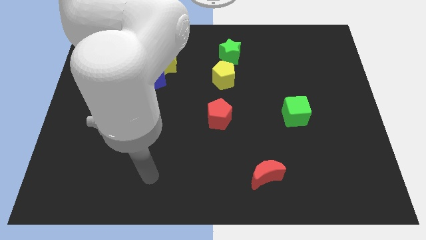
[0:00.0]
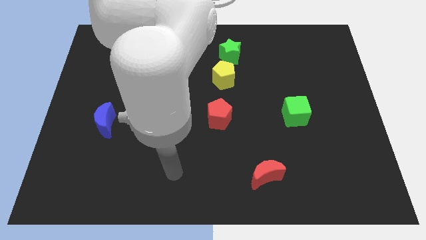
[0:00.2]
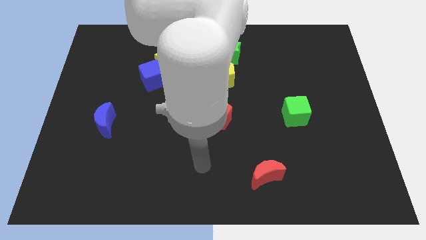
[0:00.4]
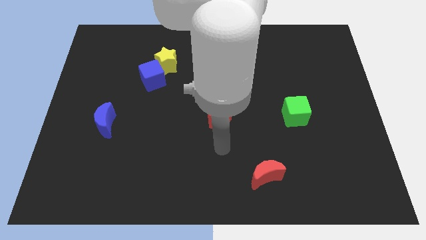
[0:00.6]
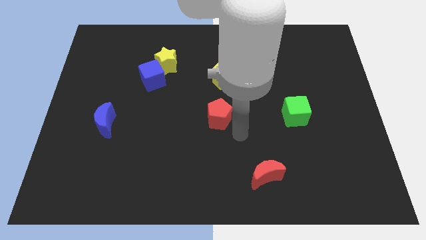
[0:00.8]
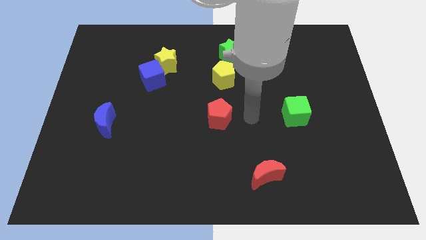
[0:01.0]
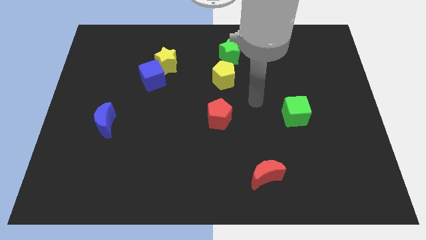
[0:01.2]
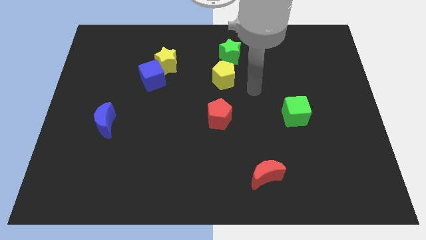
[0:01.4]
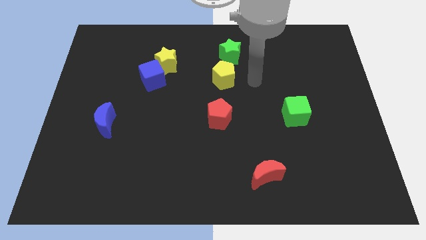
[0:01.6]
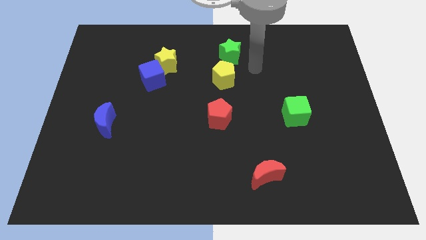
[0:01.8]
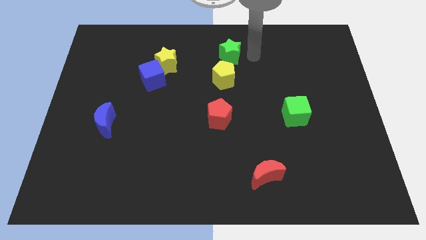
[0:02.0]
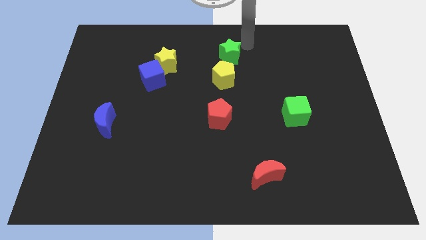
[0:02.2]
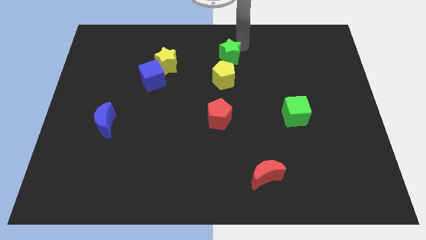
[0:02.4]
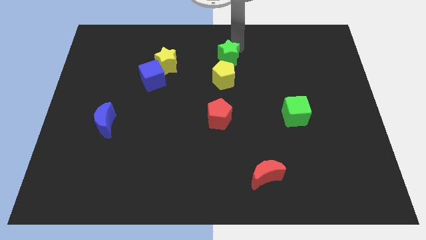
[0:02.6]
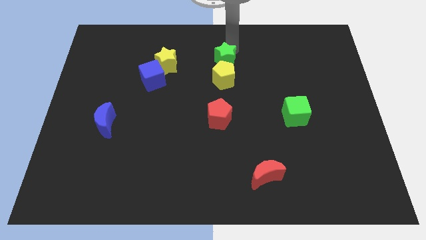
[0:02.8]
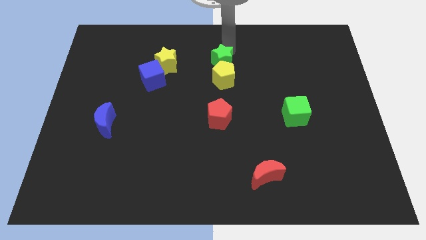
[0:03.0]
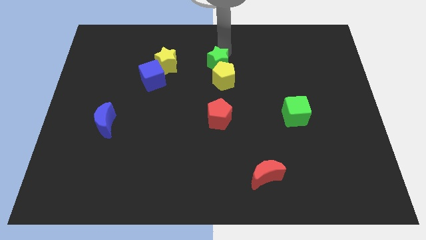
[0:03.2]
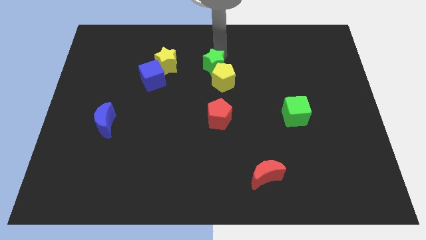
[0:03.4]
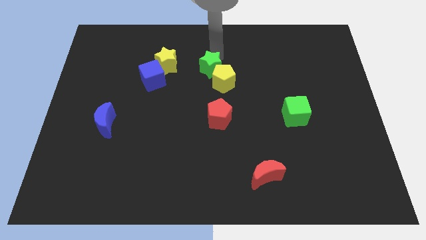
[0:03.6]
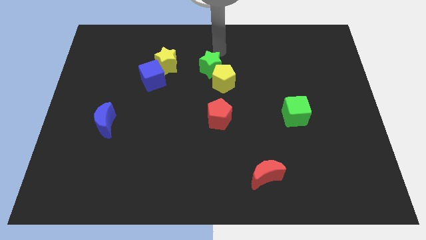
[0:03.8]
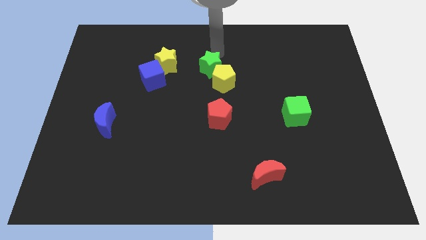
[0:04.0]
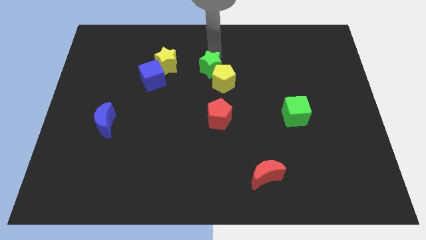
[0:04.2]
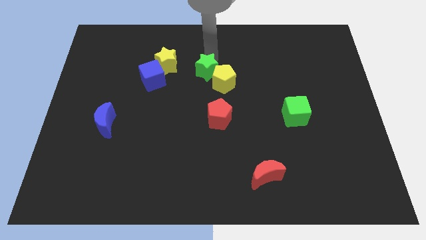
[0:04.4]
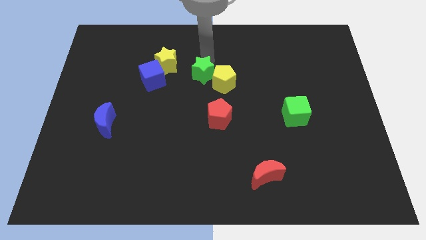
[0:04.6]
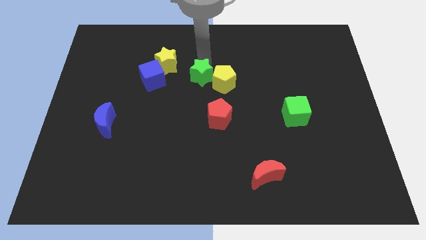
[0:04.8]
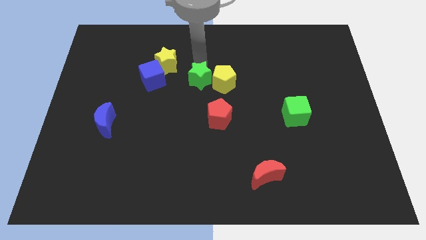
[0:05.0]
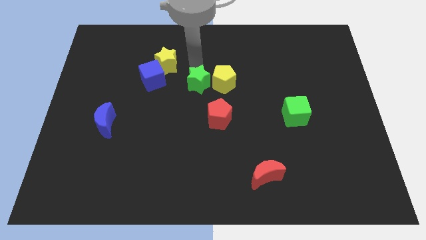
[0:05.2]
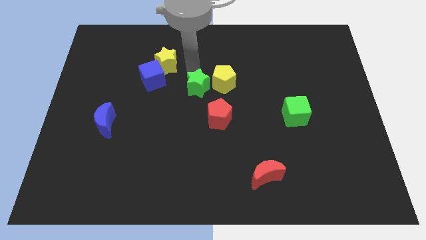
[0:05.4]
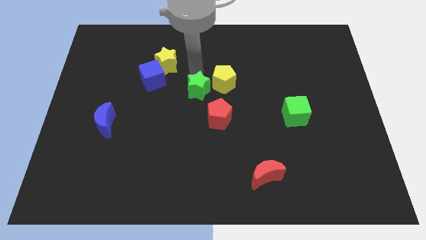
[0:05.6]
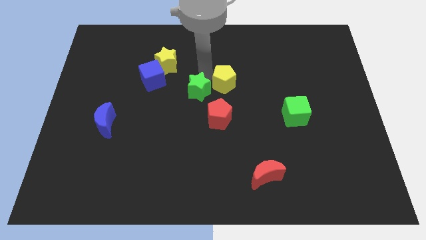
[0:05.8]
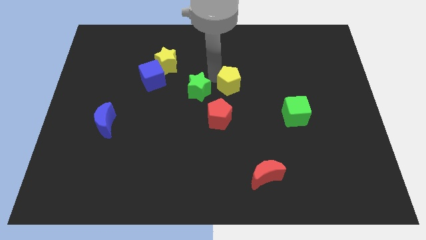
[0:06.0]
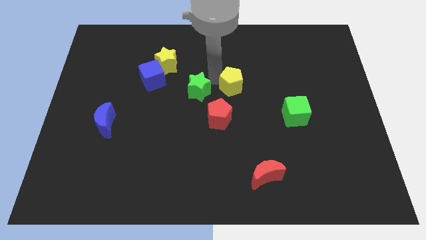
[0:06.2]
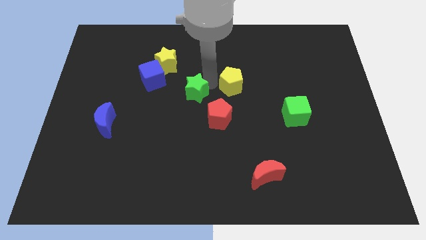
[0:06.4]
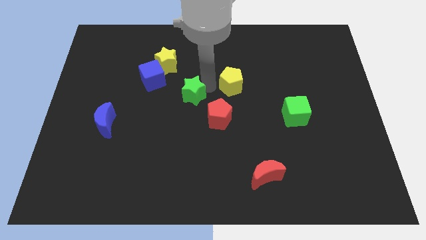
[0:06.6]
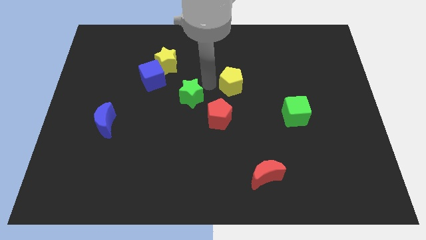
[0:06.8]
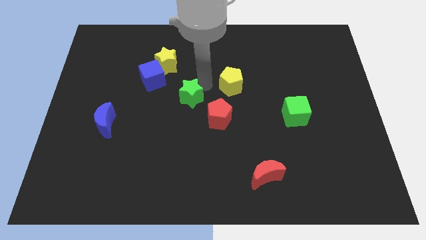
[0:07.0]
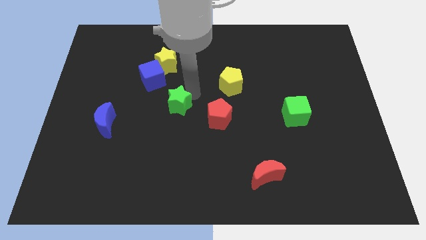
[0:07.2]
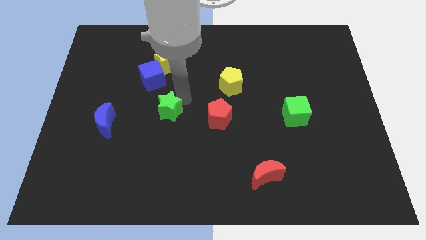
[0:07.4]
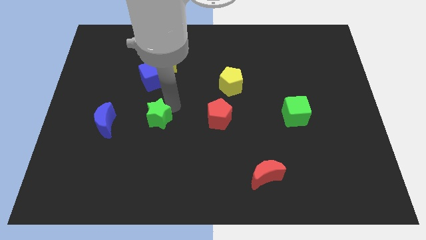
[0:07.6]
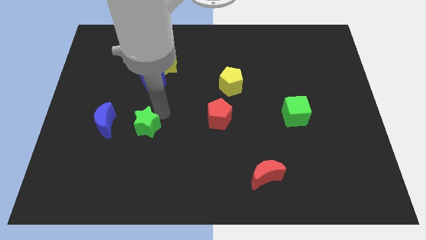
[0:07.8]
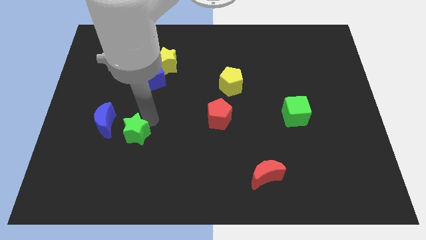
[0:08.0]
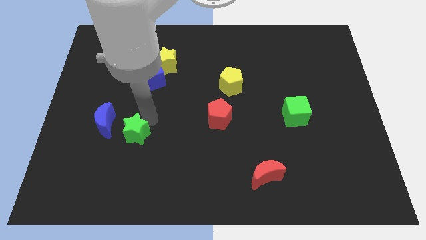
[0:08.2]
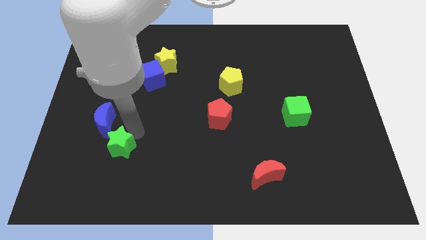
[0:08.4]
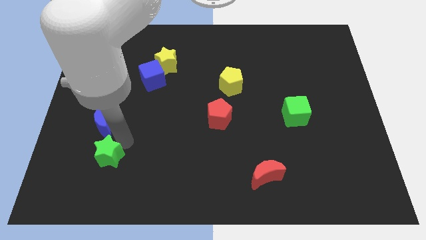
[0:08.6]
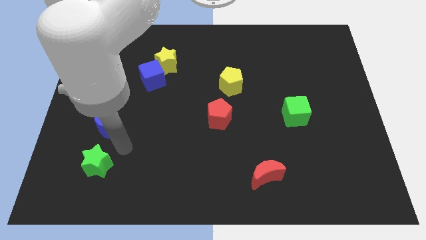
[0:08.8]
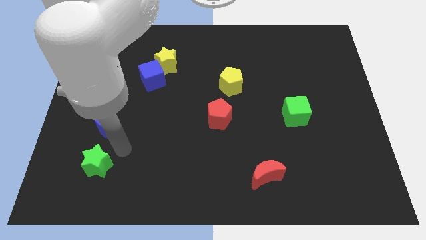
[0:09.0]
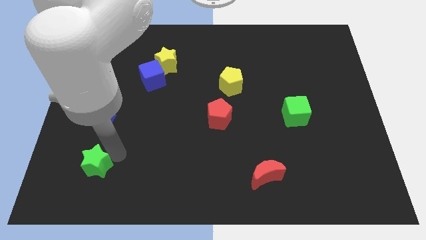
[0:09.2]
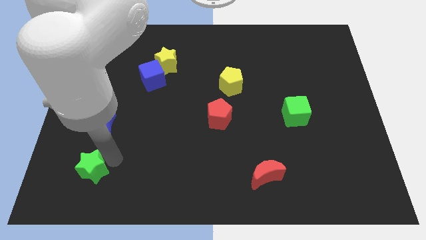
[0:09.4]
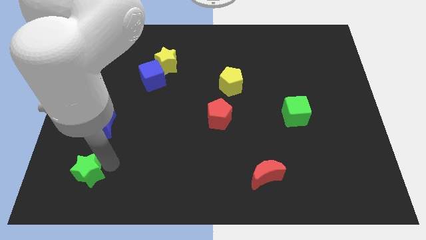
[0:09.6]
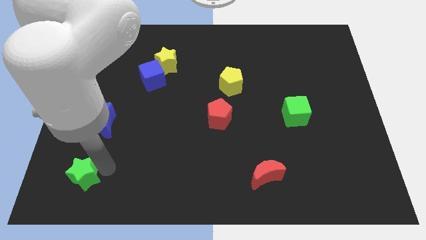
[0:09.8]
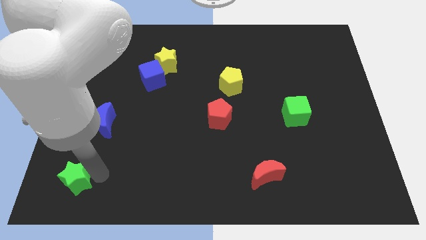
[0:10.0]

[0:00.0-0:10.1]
move the green star to the bottom left corner

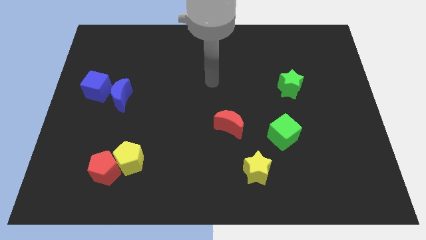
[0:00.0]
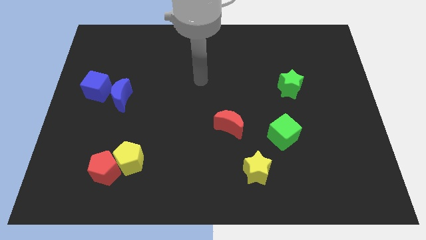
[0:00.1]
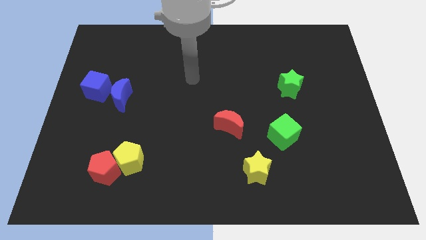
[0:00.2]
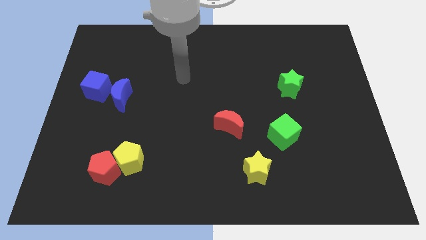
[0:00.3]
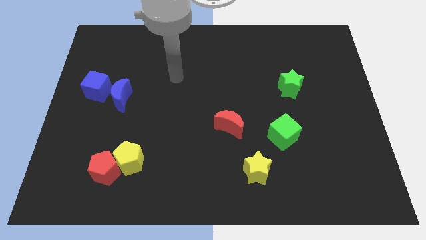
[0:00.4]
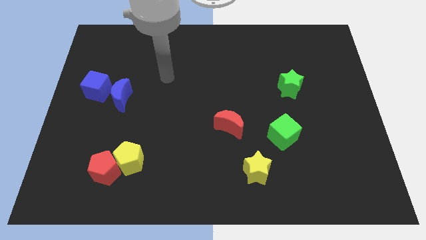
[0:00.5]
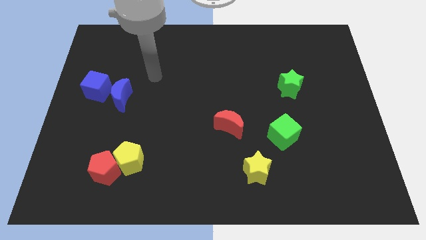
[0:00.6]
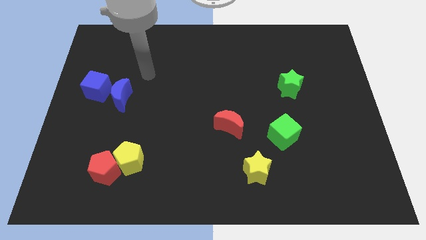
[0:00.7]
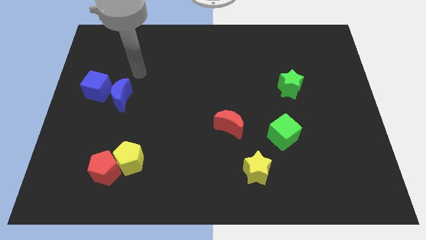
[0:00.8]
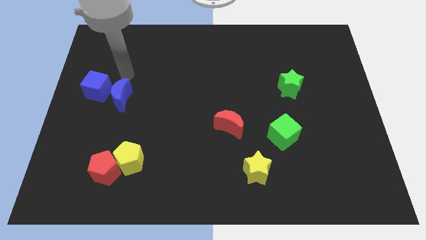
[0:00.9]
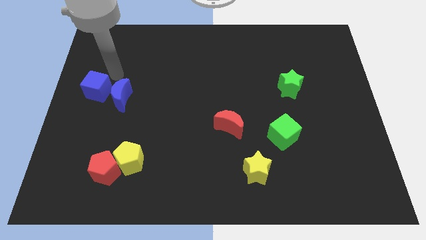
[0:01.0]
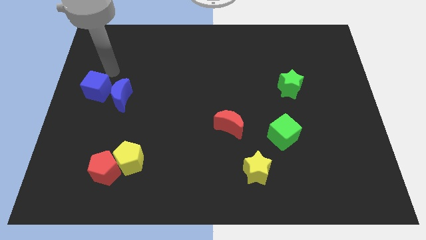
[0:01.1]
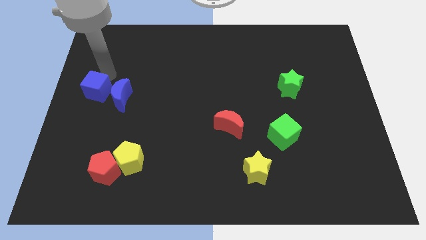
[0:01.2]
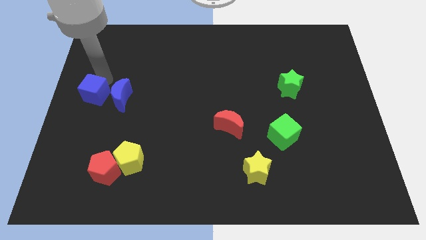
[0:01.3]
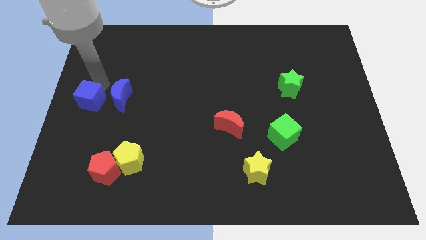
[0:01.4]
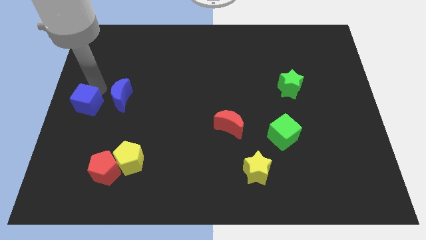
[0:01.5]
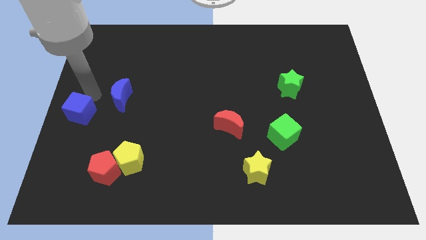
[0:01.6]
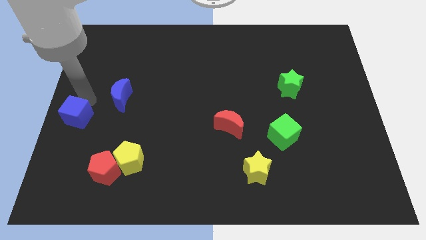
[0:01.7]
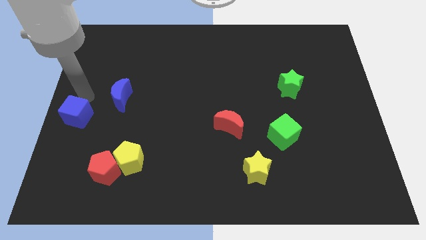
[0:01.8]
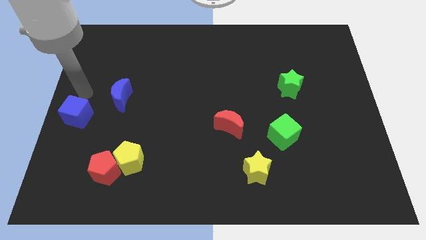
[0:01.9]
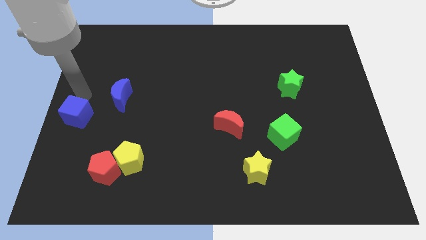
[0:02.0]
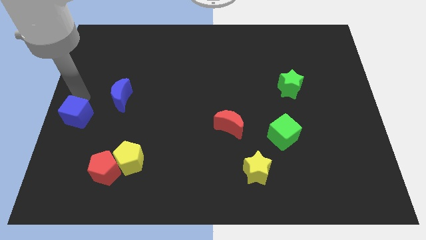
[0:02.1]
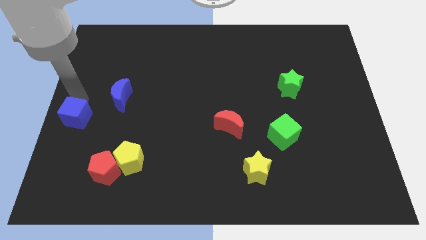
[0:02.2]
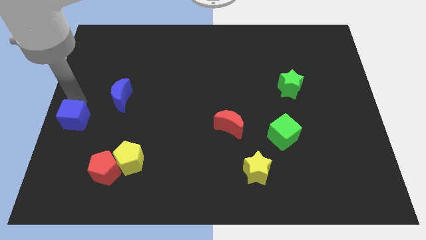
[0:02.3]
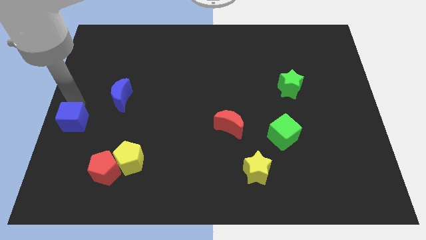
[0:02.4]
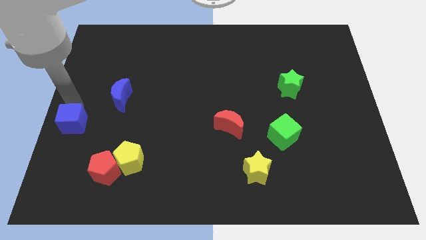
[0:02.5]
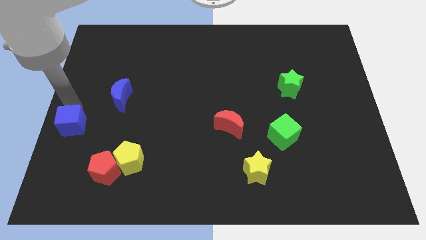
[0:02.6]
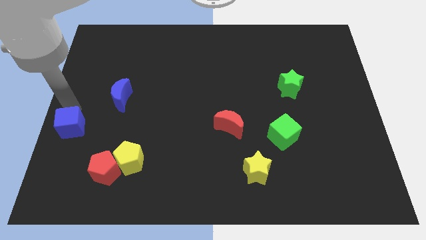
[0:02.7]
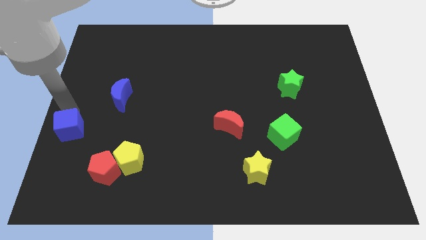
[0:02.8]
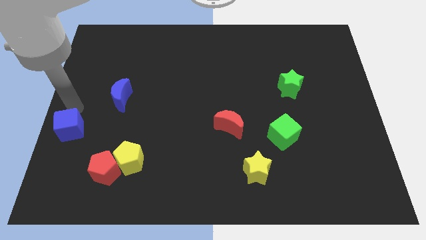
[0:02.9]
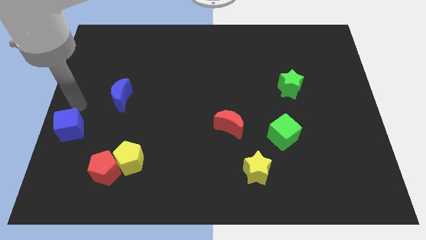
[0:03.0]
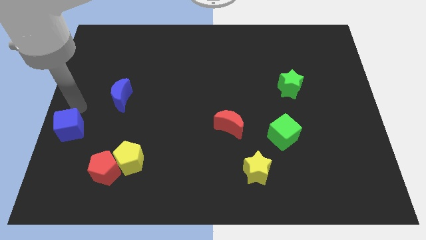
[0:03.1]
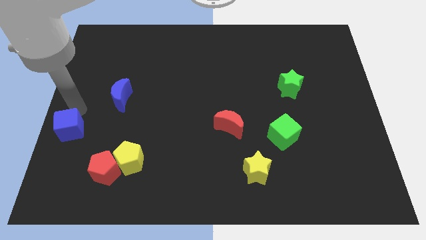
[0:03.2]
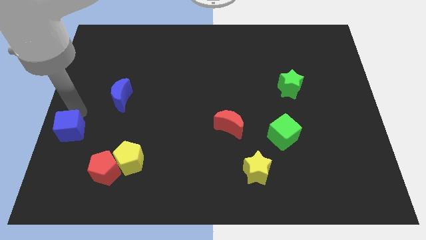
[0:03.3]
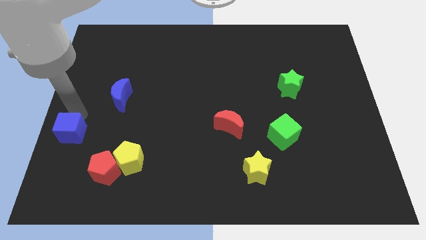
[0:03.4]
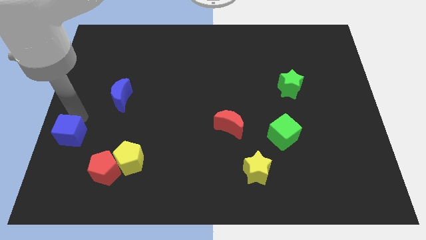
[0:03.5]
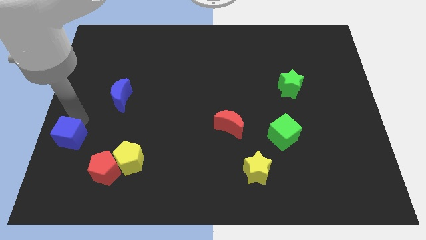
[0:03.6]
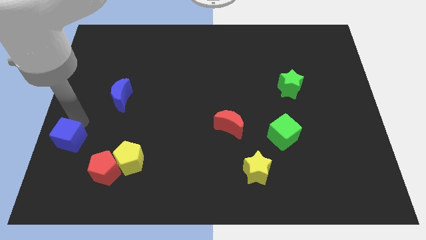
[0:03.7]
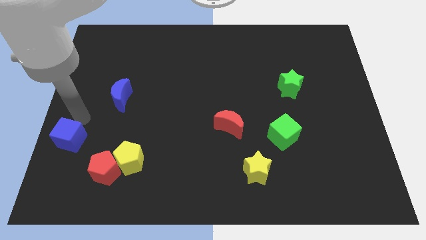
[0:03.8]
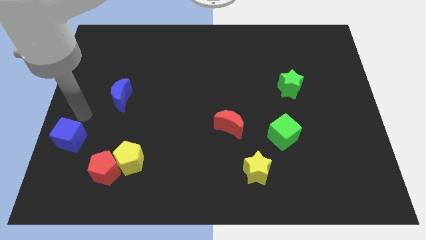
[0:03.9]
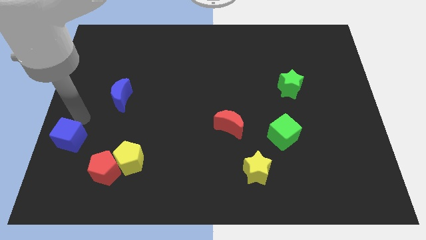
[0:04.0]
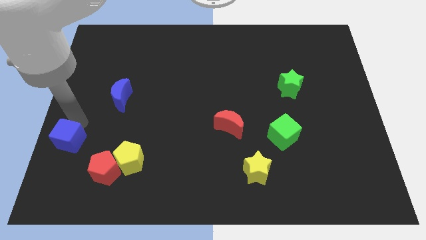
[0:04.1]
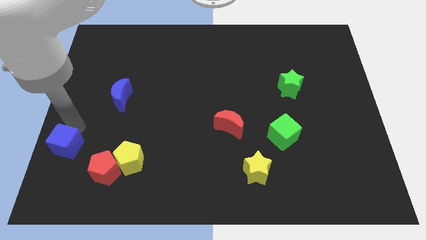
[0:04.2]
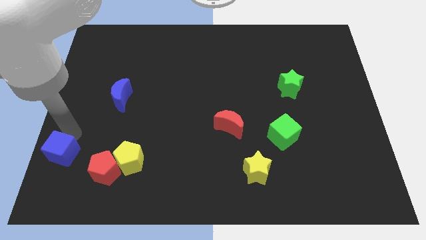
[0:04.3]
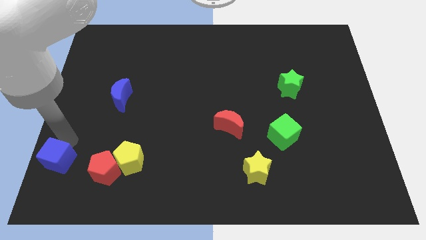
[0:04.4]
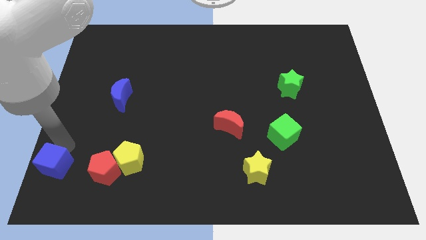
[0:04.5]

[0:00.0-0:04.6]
slide the blue cube to the lower left corner
